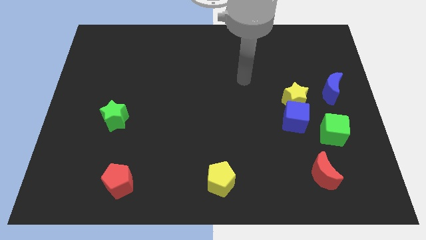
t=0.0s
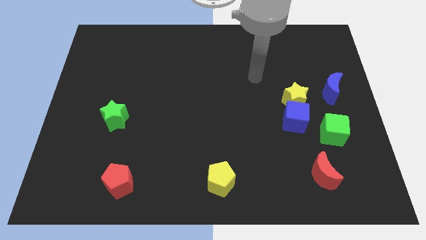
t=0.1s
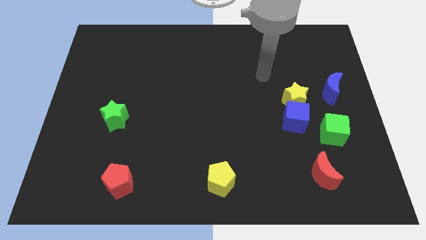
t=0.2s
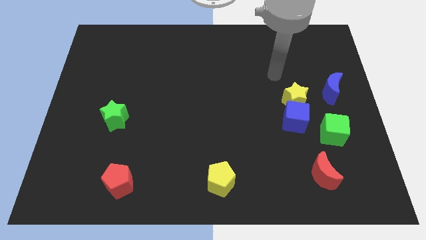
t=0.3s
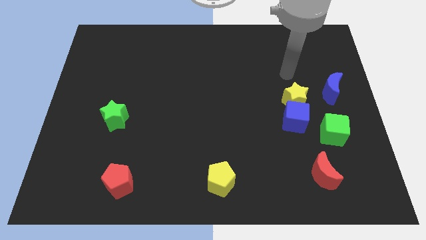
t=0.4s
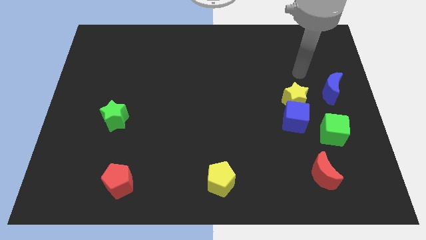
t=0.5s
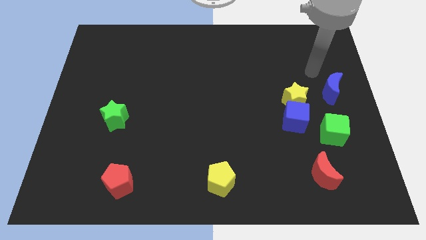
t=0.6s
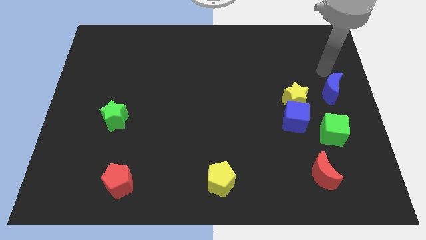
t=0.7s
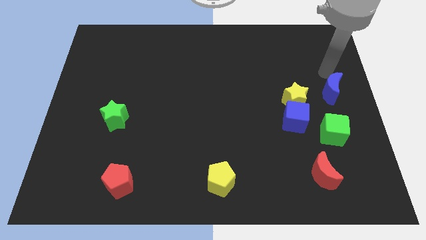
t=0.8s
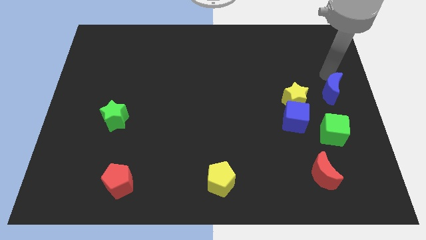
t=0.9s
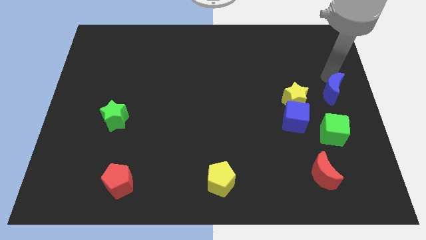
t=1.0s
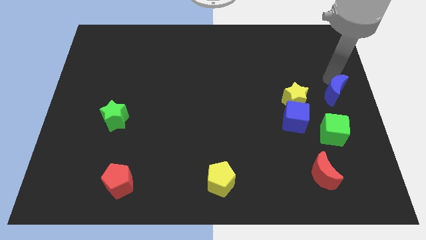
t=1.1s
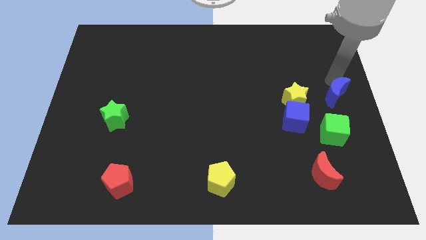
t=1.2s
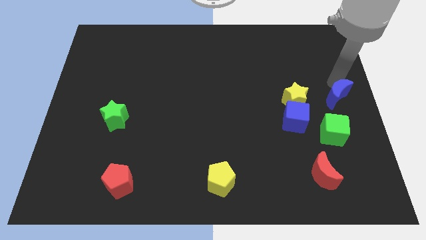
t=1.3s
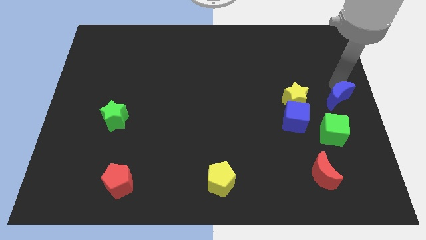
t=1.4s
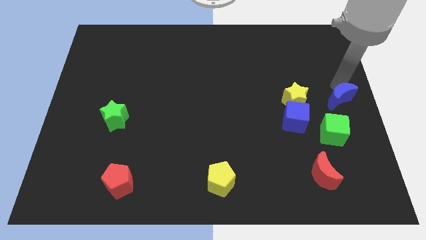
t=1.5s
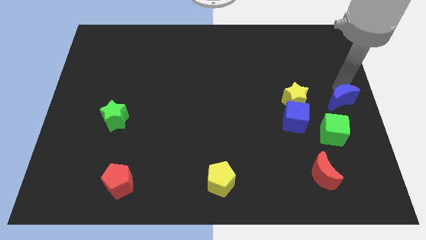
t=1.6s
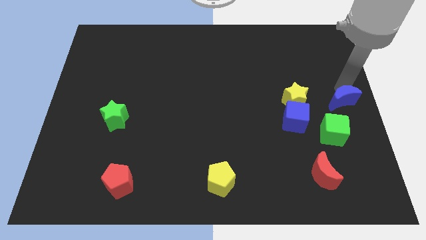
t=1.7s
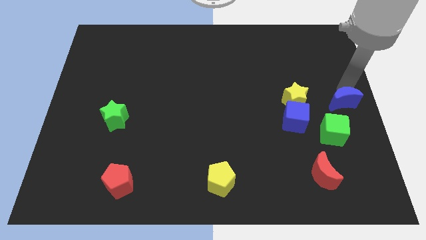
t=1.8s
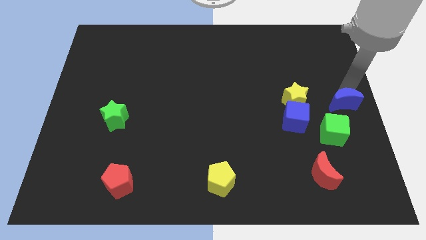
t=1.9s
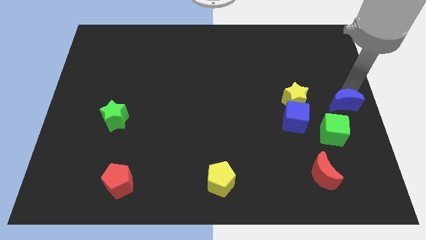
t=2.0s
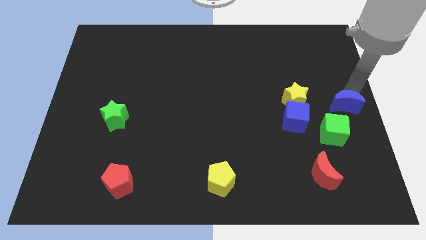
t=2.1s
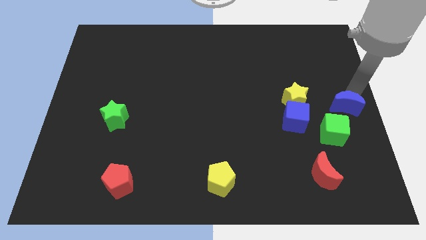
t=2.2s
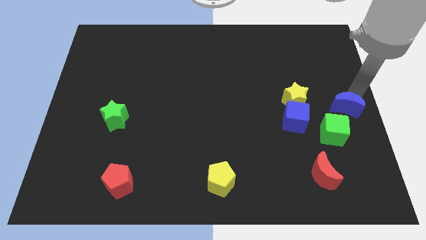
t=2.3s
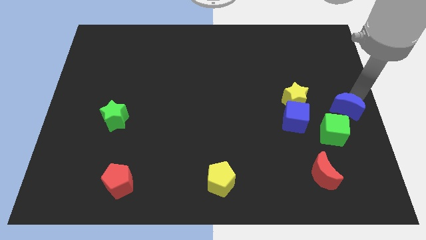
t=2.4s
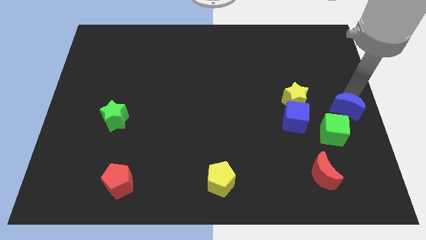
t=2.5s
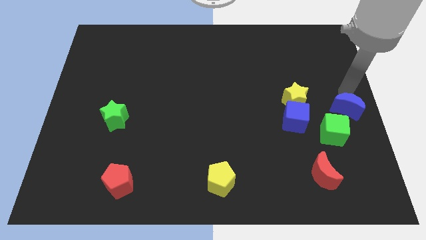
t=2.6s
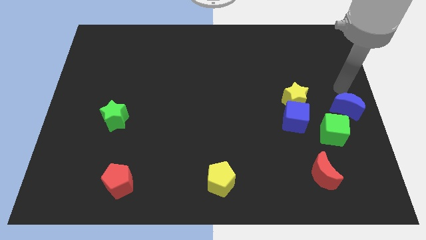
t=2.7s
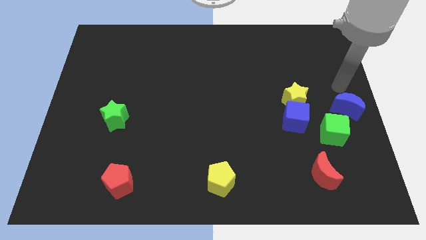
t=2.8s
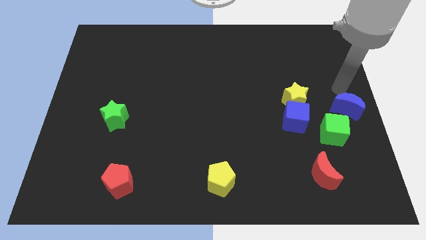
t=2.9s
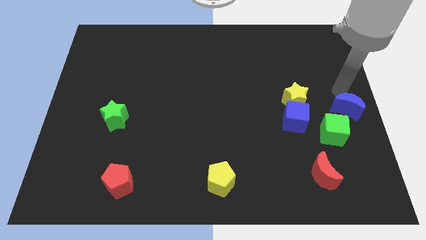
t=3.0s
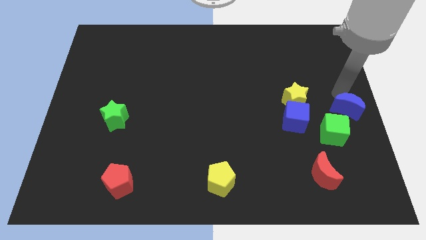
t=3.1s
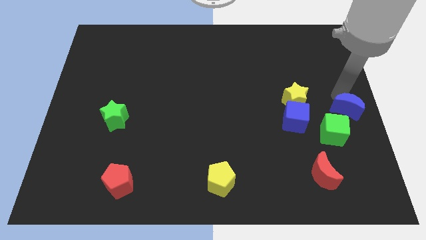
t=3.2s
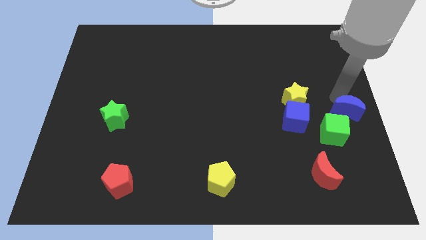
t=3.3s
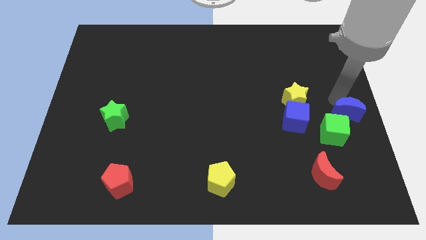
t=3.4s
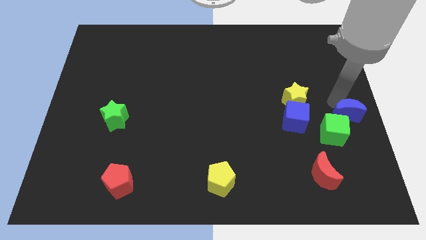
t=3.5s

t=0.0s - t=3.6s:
move the blue moon a little bit down

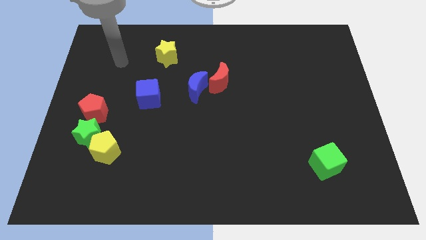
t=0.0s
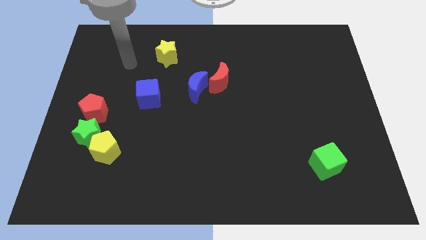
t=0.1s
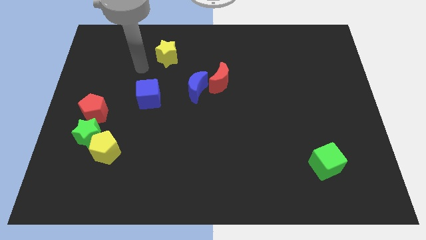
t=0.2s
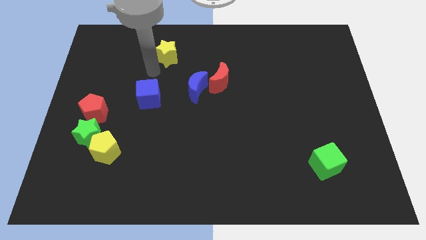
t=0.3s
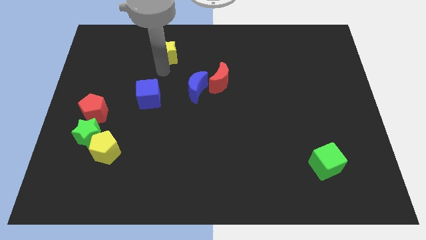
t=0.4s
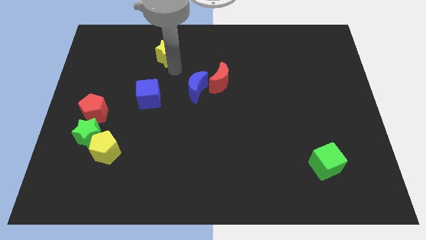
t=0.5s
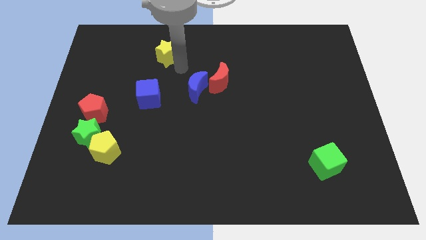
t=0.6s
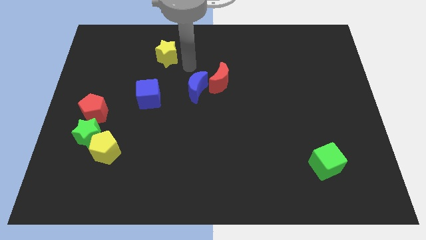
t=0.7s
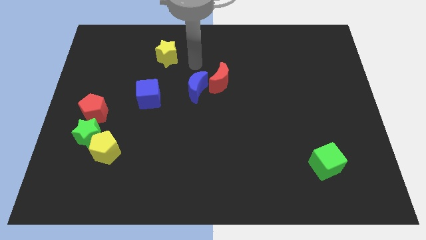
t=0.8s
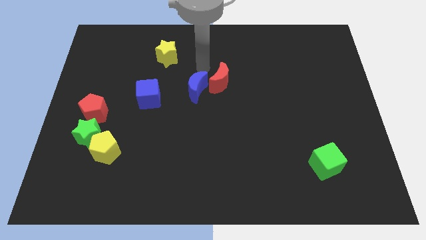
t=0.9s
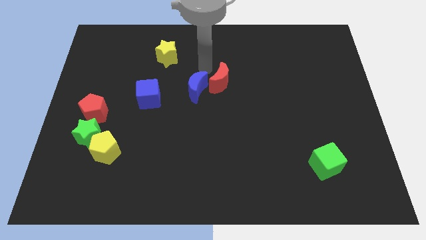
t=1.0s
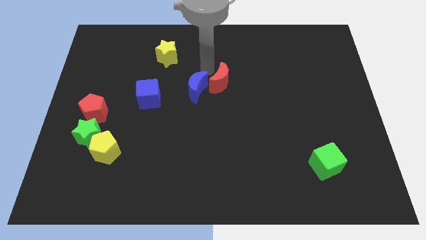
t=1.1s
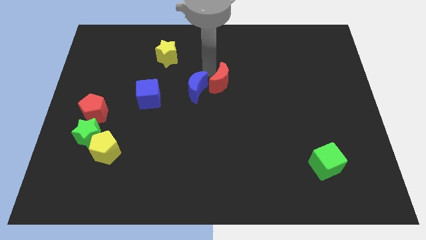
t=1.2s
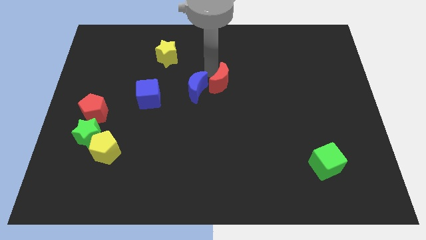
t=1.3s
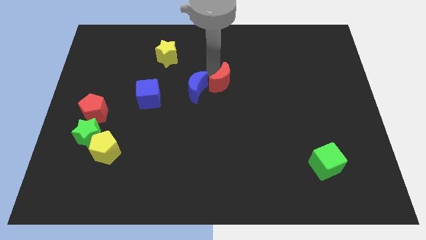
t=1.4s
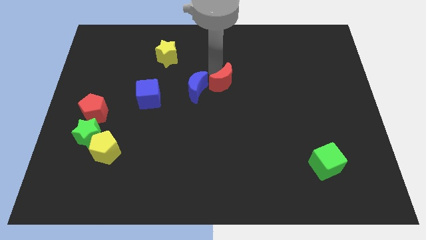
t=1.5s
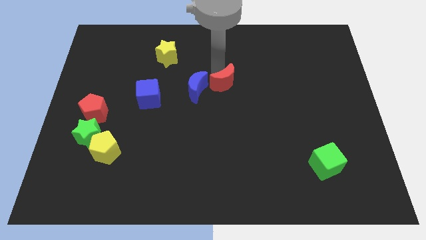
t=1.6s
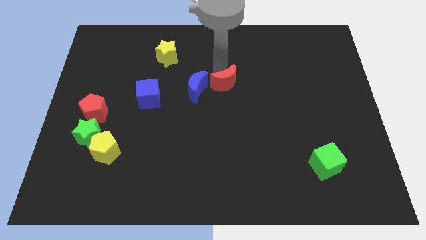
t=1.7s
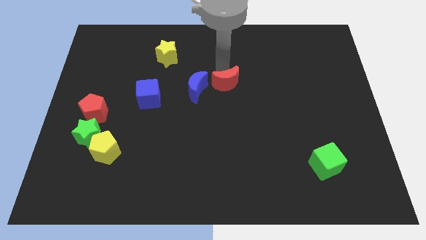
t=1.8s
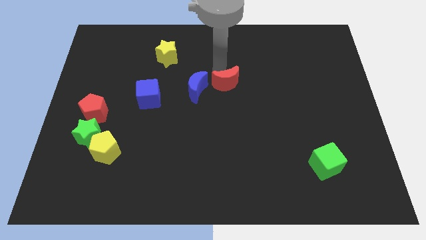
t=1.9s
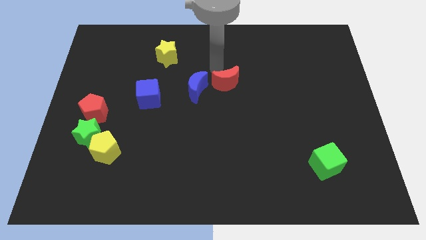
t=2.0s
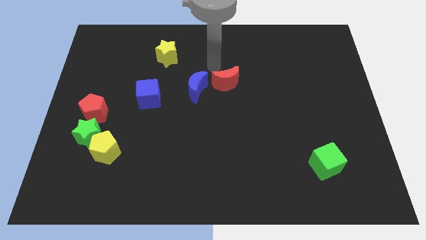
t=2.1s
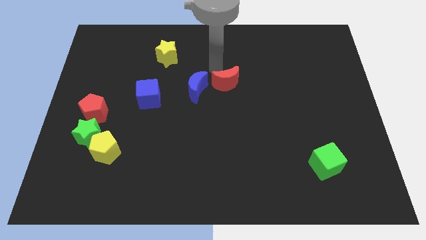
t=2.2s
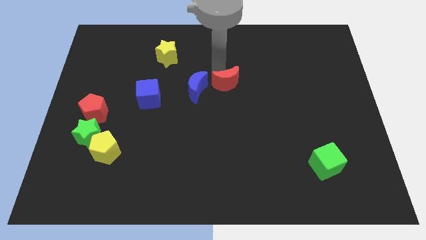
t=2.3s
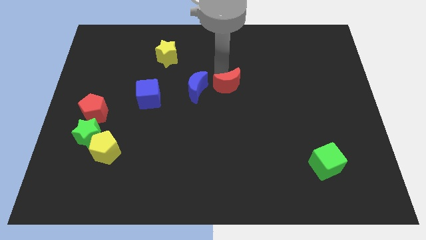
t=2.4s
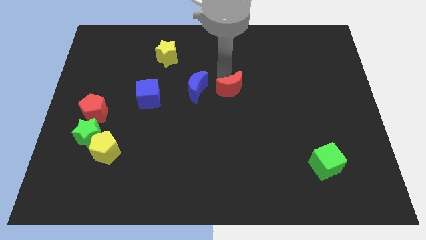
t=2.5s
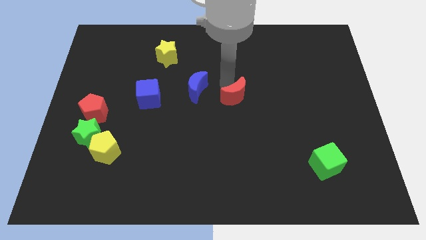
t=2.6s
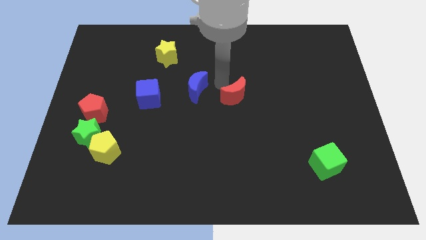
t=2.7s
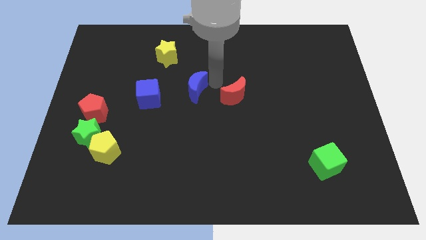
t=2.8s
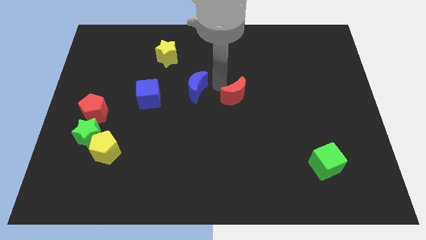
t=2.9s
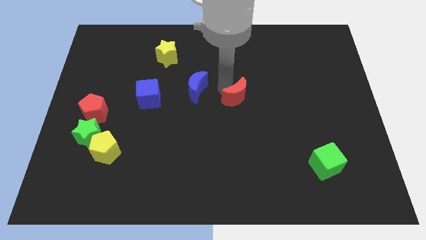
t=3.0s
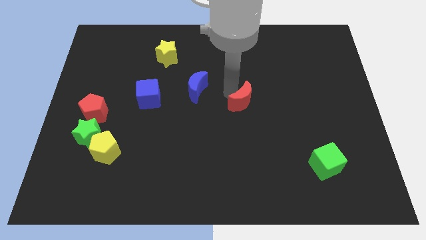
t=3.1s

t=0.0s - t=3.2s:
slide the red moon a little down and to the right diagonally

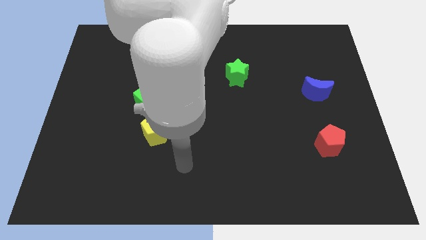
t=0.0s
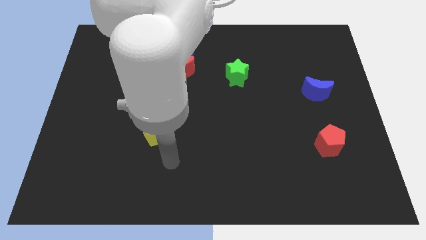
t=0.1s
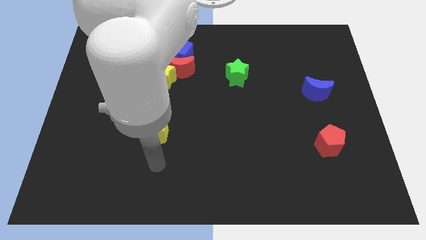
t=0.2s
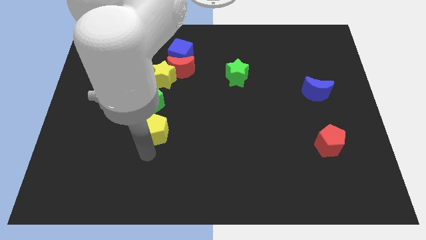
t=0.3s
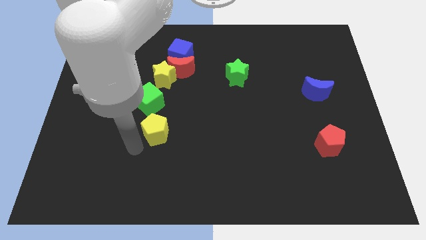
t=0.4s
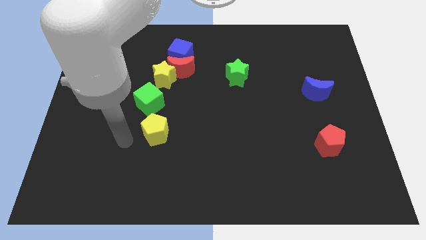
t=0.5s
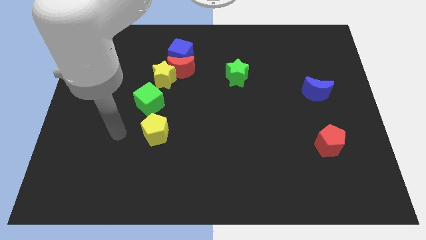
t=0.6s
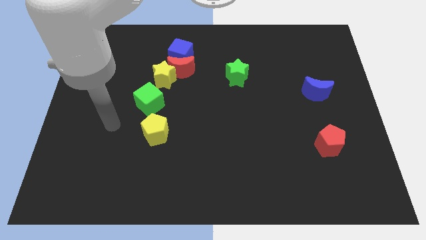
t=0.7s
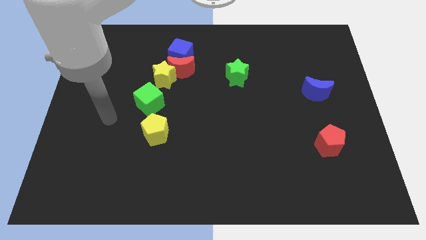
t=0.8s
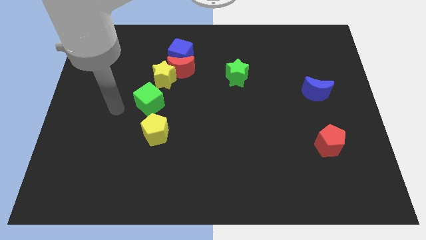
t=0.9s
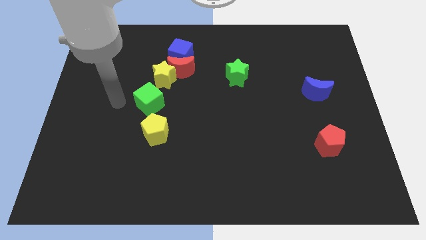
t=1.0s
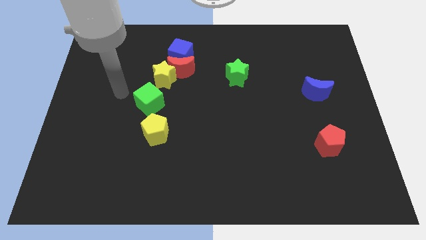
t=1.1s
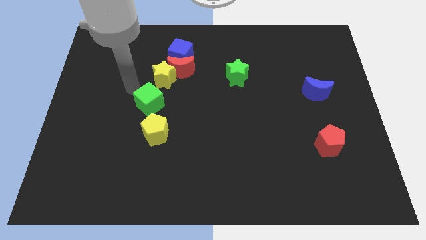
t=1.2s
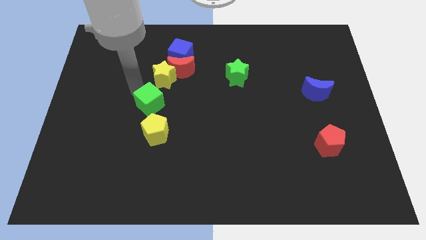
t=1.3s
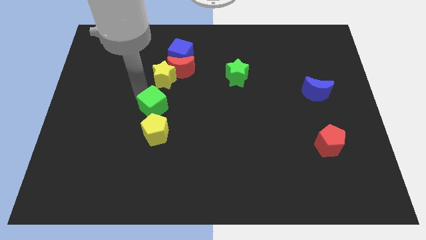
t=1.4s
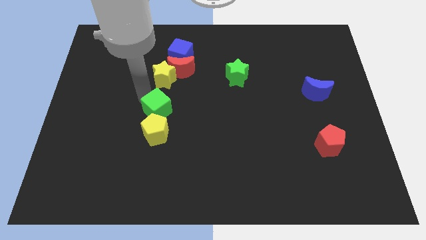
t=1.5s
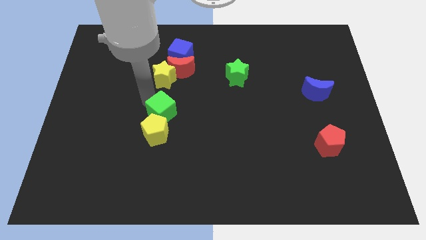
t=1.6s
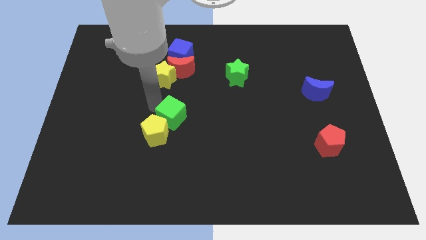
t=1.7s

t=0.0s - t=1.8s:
slightly slide the green cube down and right
